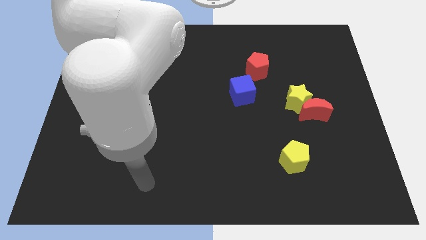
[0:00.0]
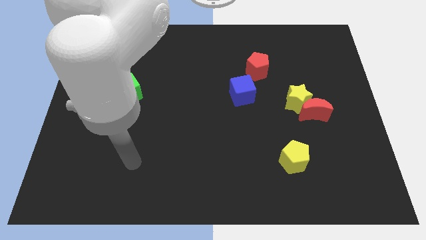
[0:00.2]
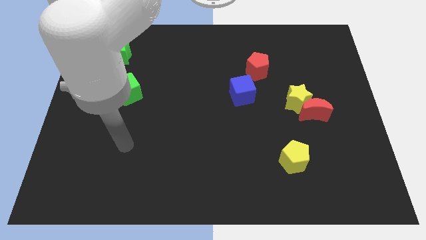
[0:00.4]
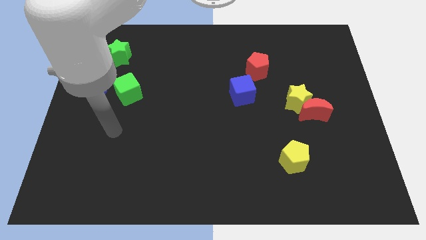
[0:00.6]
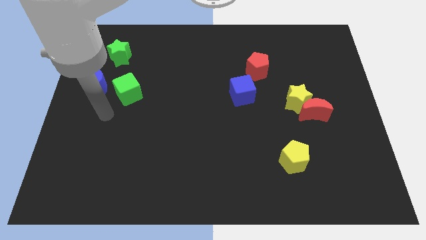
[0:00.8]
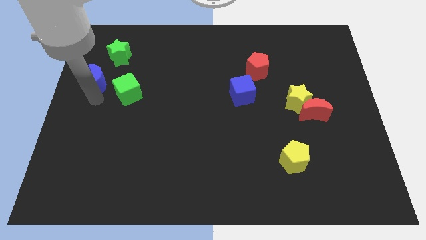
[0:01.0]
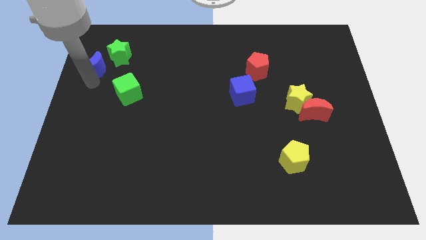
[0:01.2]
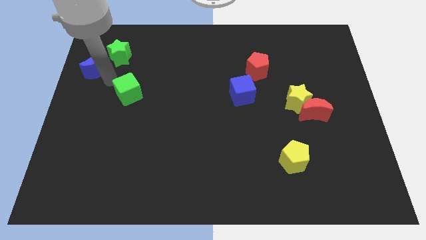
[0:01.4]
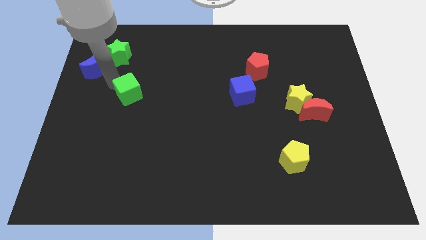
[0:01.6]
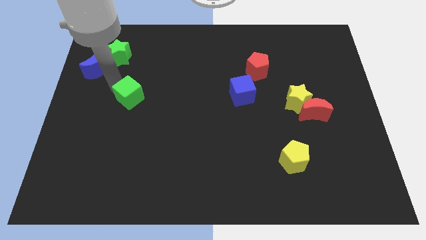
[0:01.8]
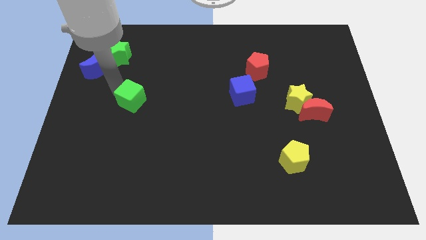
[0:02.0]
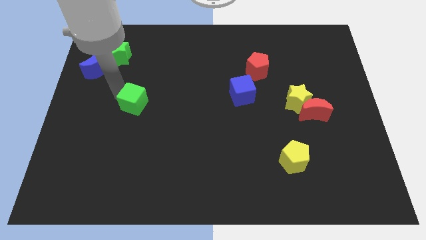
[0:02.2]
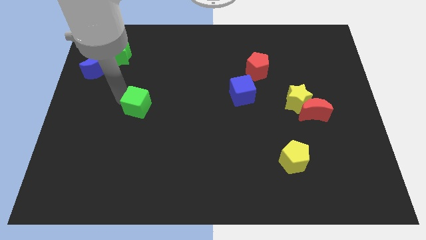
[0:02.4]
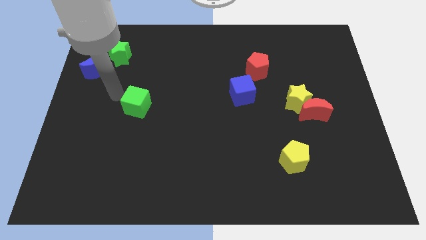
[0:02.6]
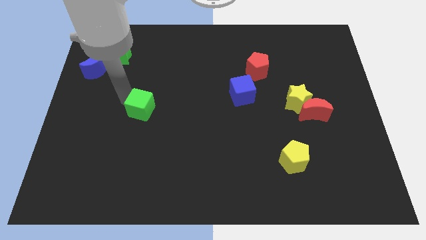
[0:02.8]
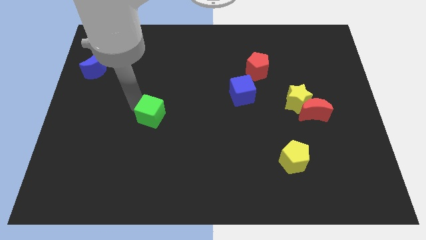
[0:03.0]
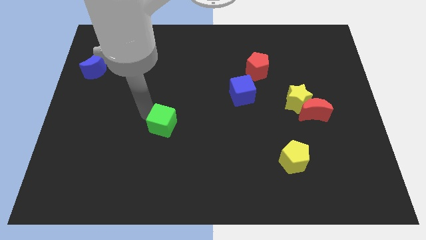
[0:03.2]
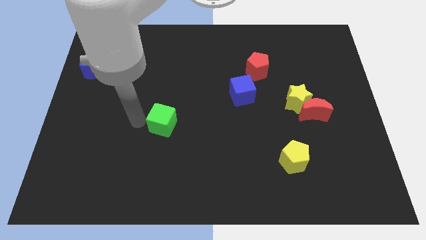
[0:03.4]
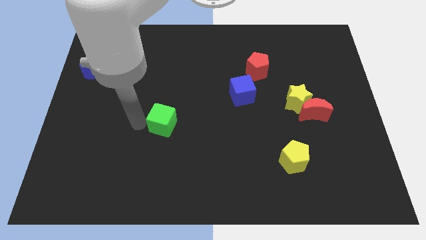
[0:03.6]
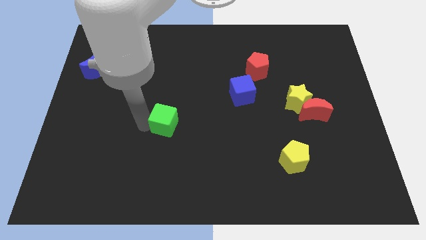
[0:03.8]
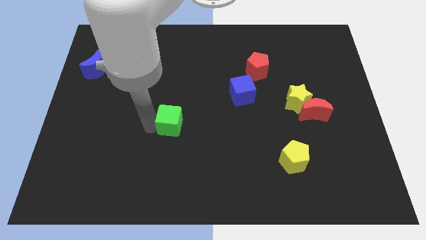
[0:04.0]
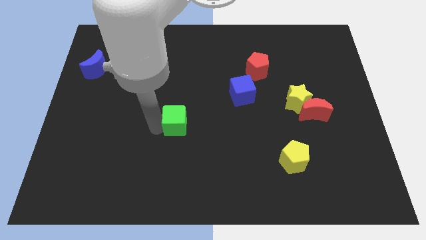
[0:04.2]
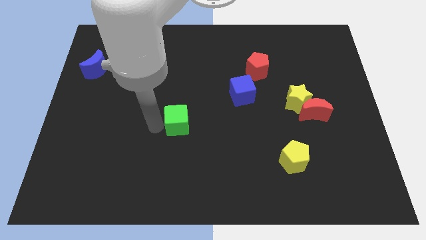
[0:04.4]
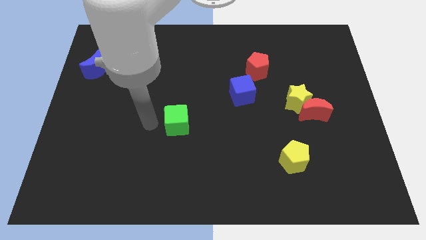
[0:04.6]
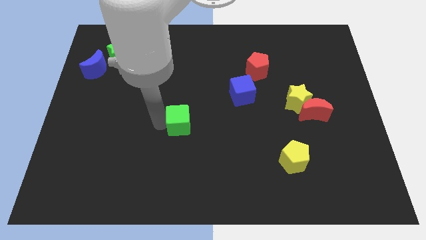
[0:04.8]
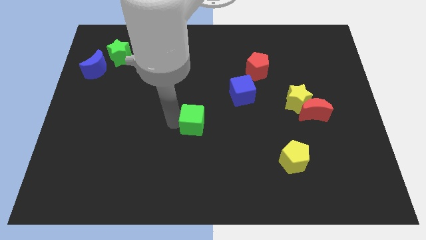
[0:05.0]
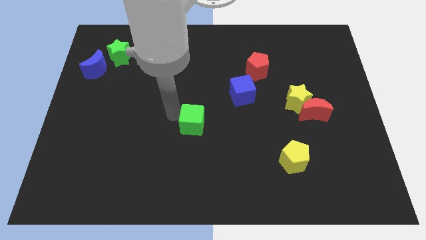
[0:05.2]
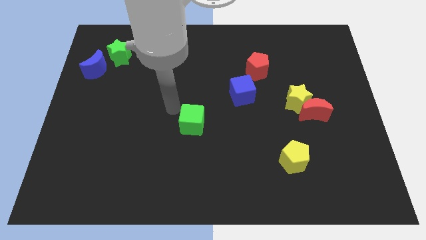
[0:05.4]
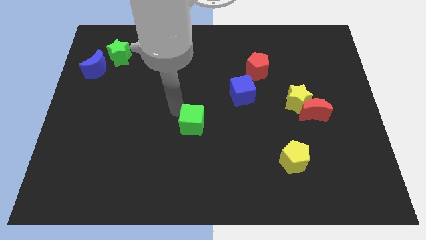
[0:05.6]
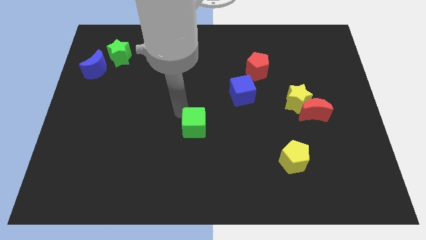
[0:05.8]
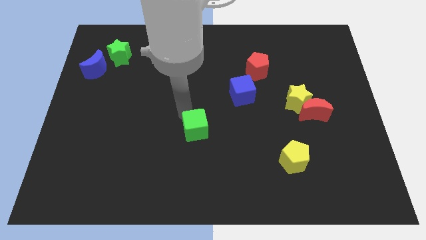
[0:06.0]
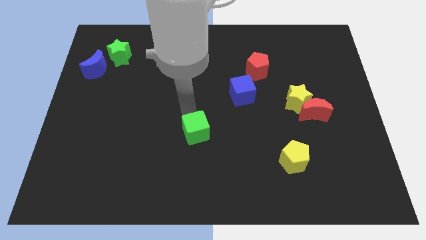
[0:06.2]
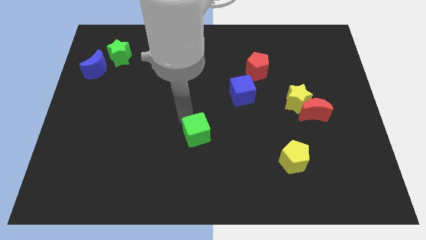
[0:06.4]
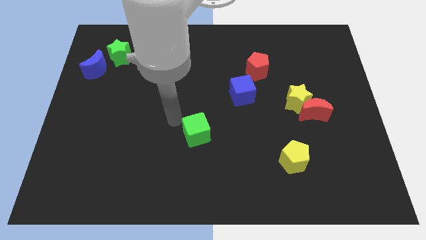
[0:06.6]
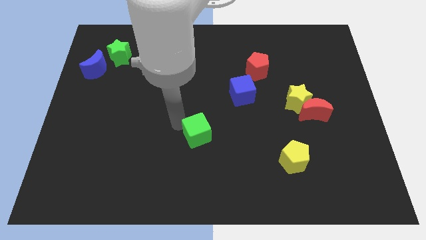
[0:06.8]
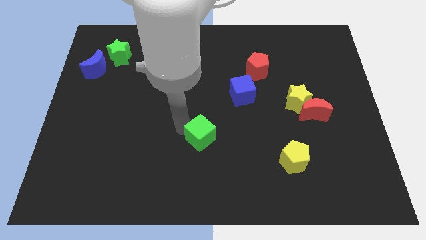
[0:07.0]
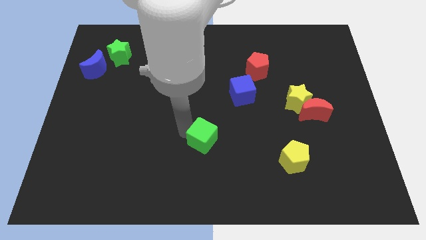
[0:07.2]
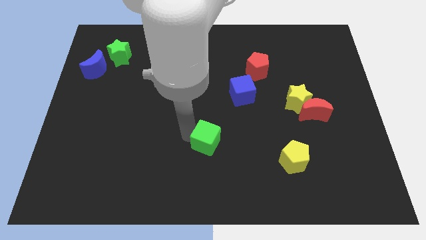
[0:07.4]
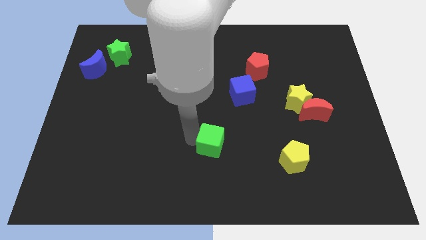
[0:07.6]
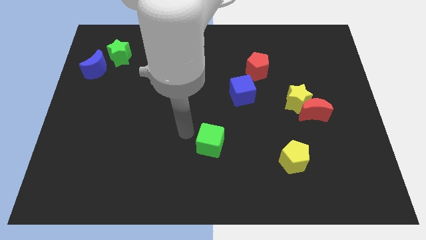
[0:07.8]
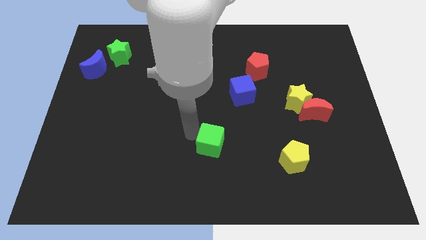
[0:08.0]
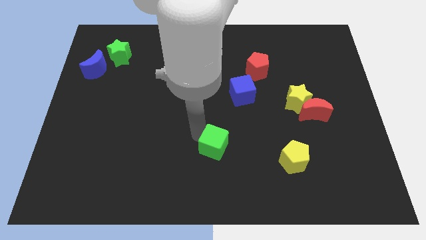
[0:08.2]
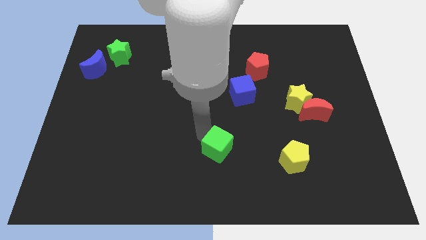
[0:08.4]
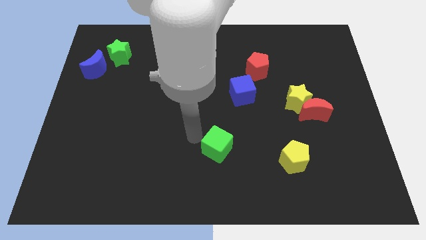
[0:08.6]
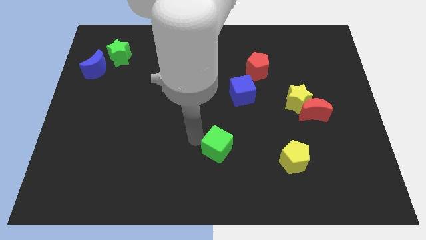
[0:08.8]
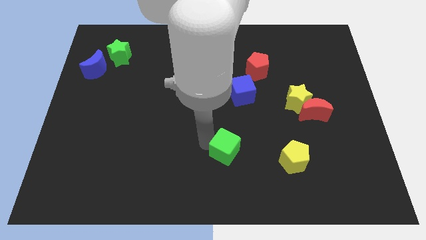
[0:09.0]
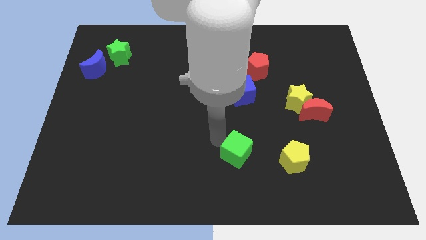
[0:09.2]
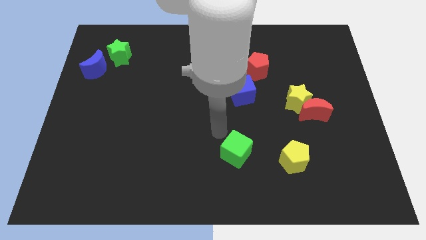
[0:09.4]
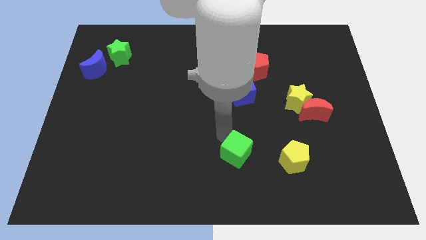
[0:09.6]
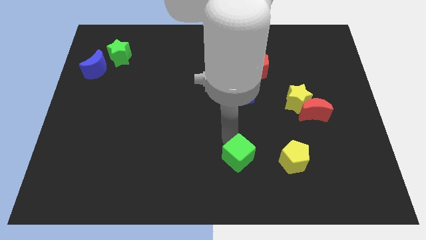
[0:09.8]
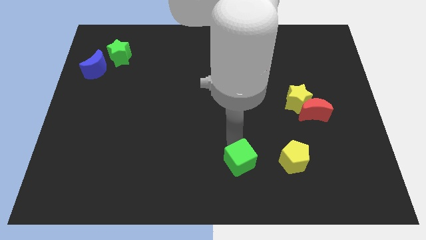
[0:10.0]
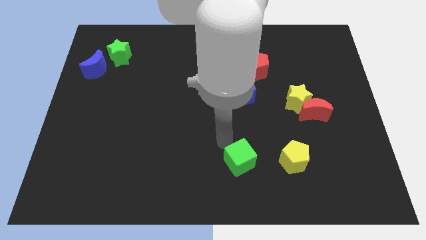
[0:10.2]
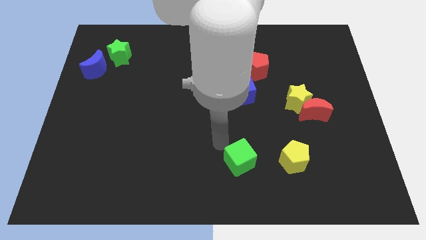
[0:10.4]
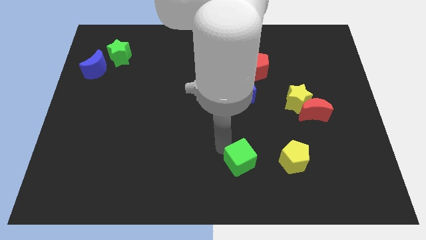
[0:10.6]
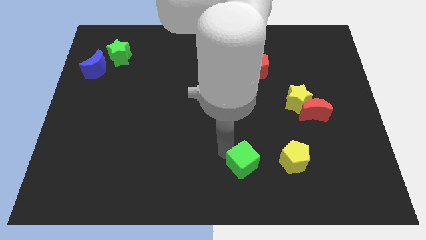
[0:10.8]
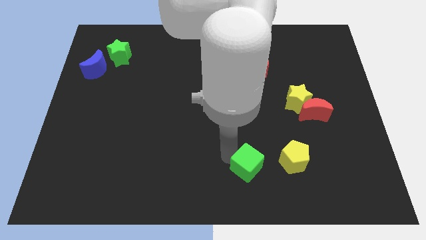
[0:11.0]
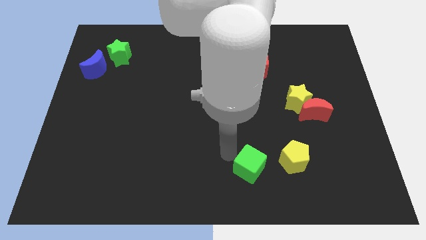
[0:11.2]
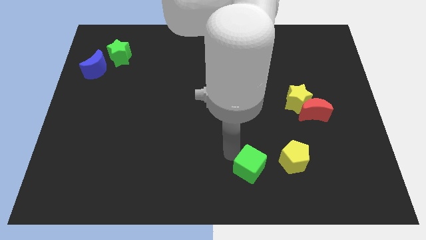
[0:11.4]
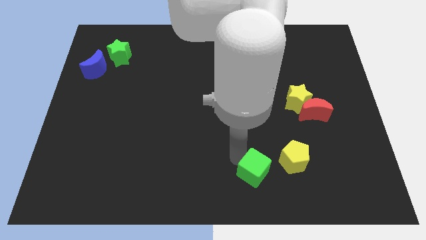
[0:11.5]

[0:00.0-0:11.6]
move the green cube diagonally down and to the left of the yellow pentagon

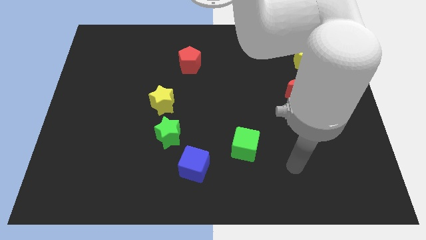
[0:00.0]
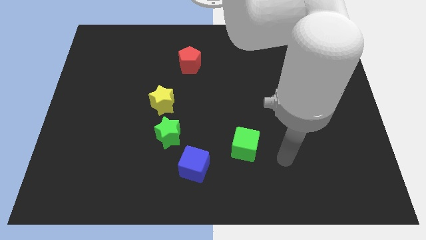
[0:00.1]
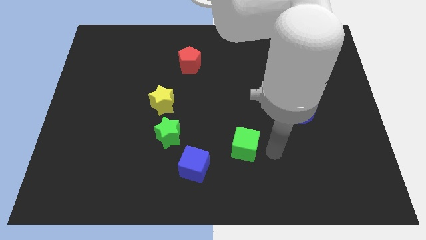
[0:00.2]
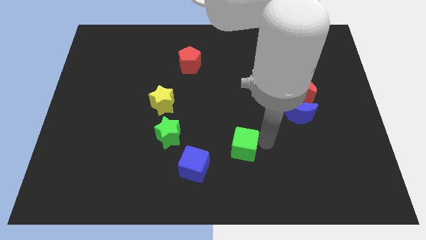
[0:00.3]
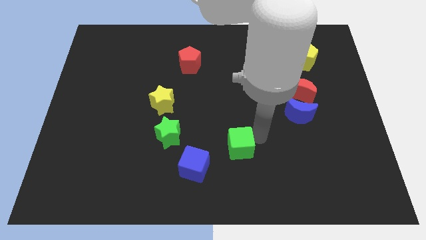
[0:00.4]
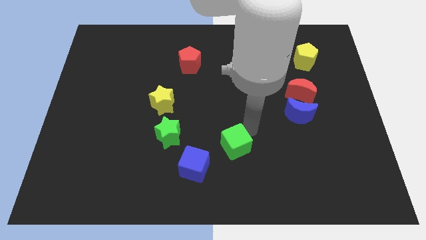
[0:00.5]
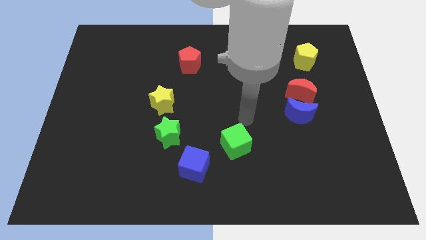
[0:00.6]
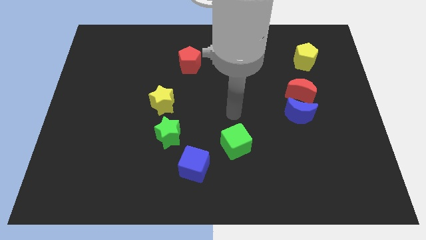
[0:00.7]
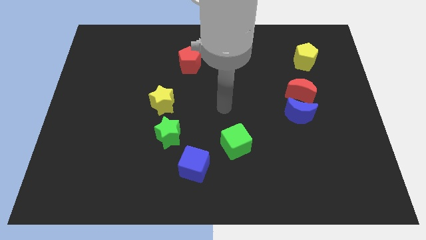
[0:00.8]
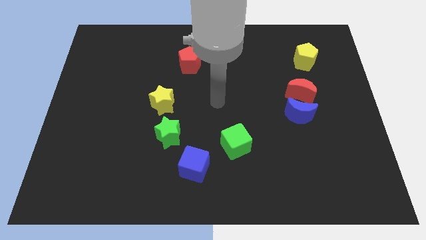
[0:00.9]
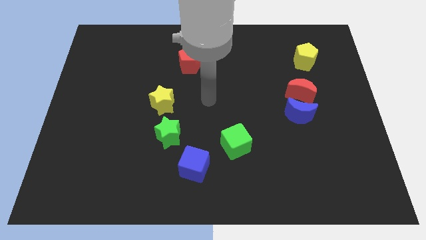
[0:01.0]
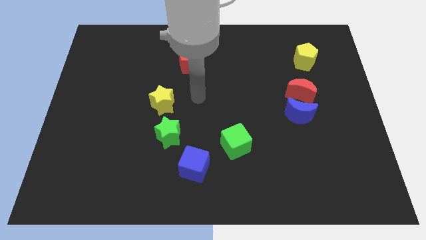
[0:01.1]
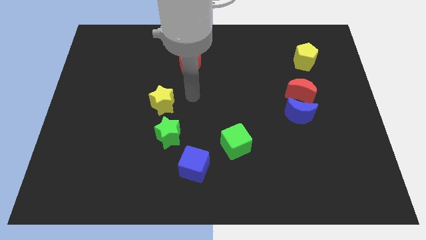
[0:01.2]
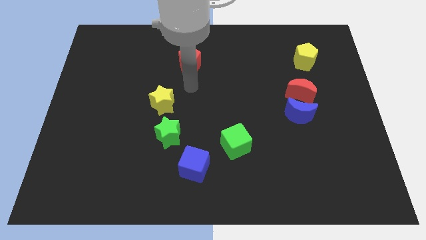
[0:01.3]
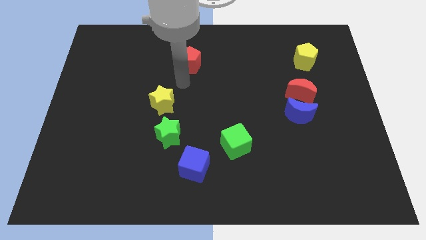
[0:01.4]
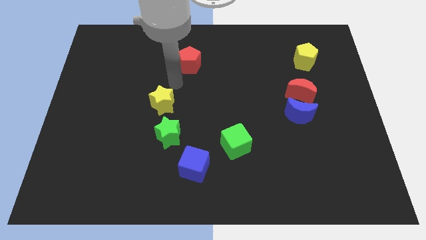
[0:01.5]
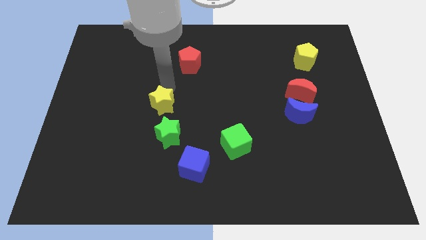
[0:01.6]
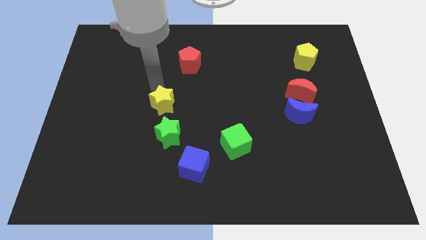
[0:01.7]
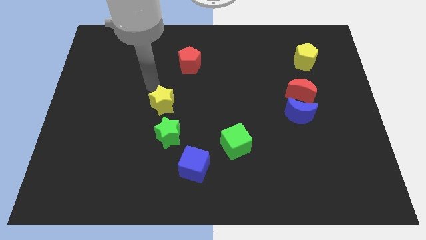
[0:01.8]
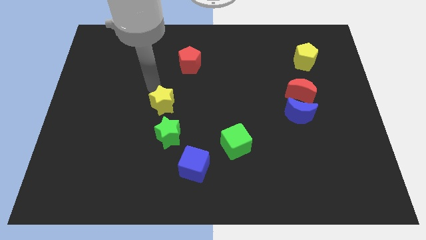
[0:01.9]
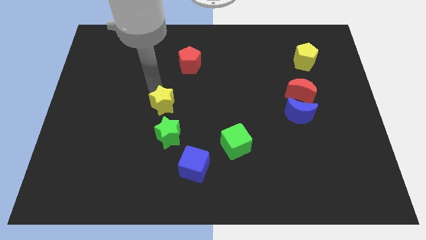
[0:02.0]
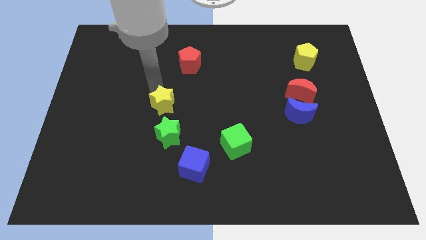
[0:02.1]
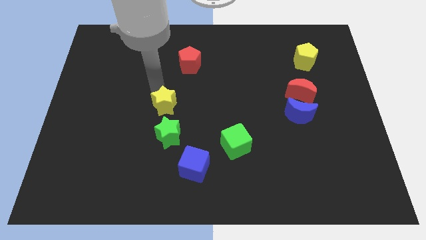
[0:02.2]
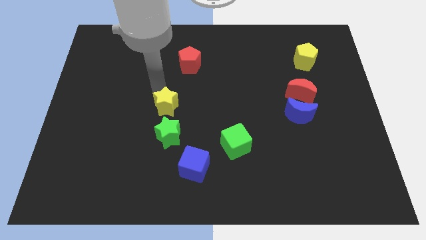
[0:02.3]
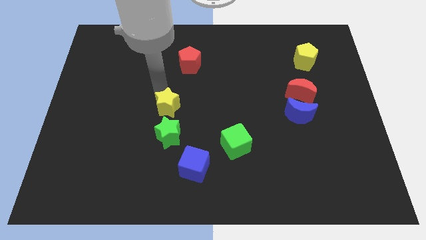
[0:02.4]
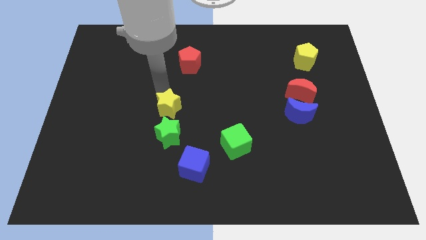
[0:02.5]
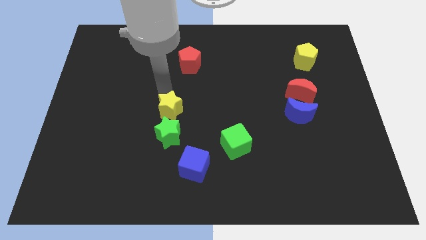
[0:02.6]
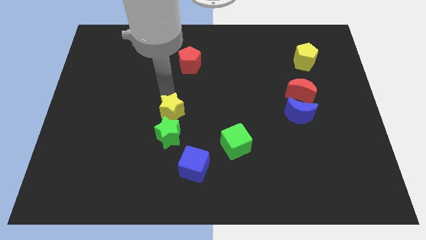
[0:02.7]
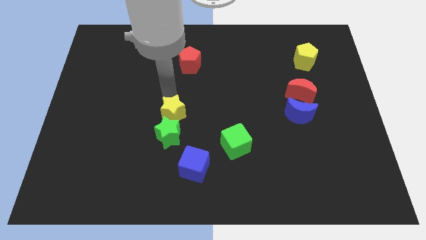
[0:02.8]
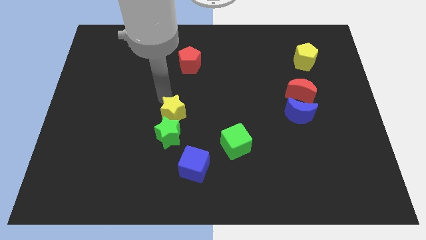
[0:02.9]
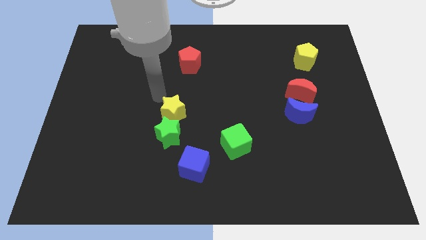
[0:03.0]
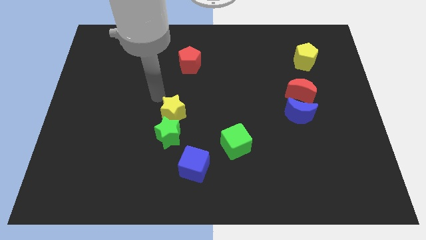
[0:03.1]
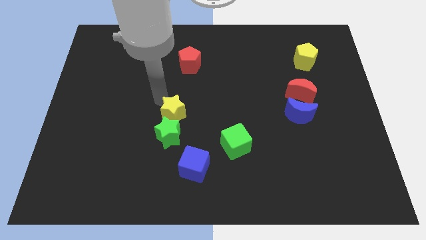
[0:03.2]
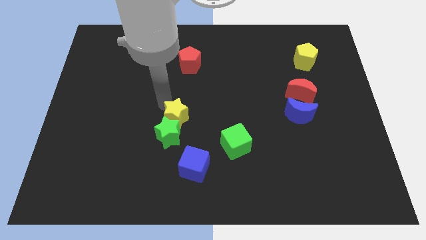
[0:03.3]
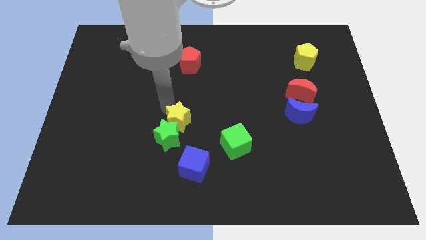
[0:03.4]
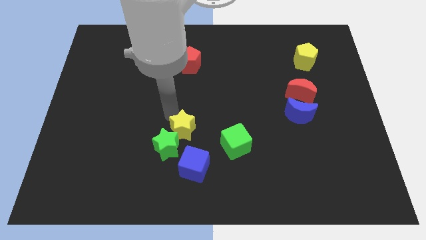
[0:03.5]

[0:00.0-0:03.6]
put the yellow star just right of the green star
